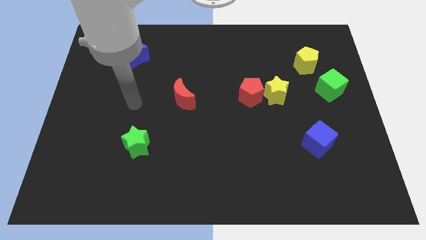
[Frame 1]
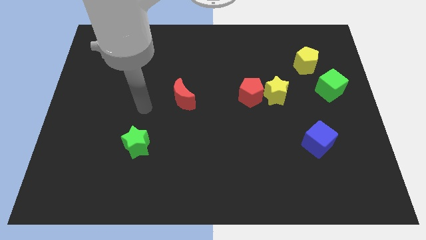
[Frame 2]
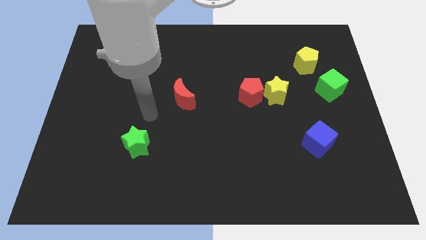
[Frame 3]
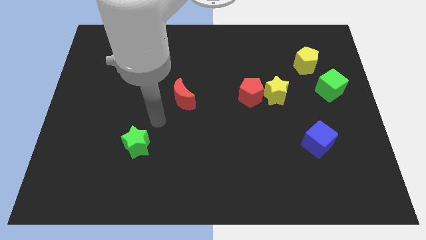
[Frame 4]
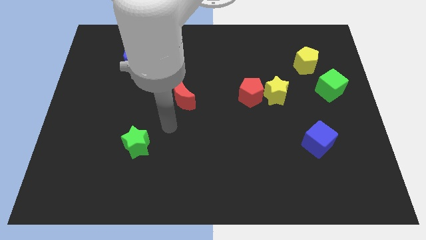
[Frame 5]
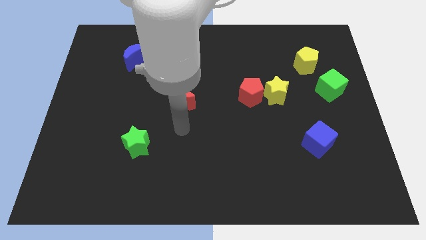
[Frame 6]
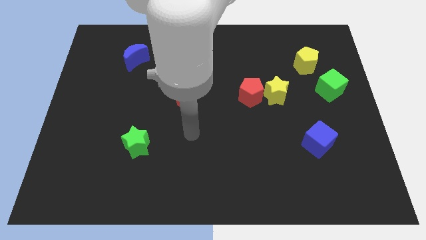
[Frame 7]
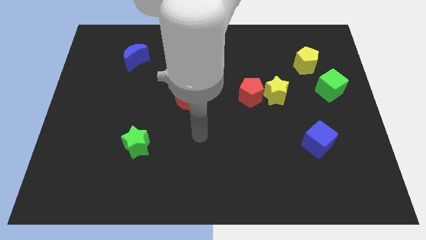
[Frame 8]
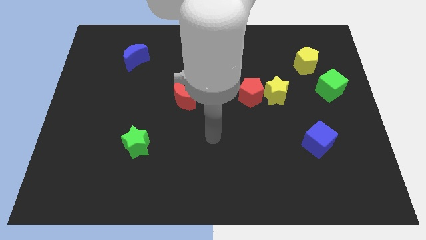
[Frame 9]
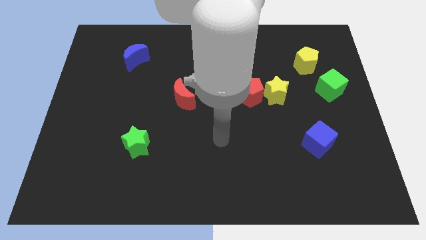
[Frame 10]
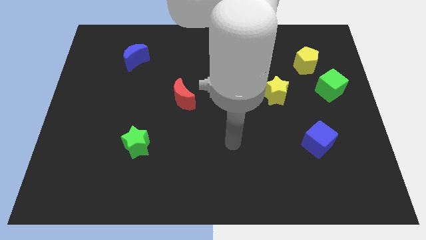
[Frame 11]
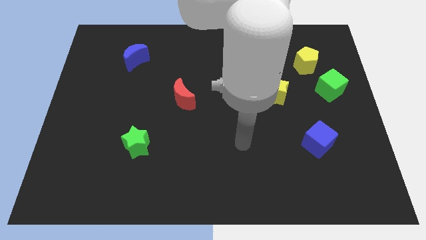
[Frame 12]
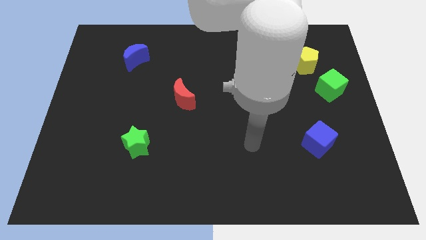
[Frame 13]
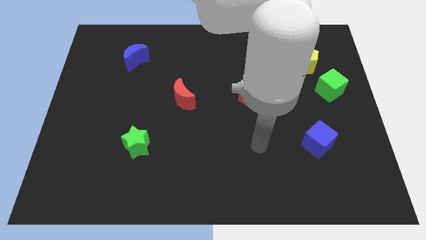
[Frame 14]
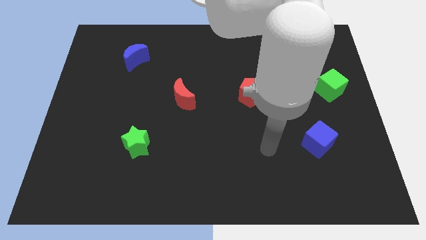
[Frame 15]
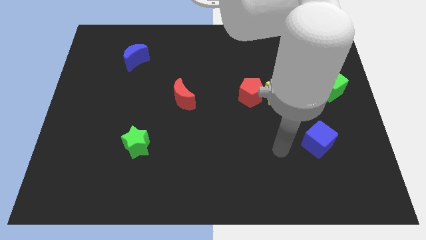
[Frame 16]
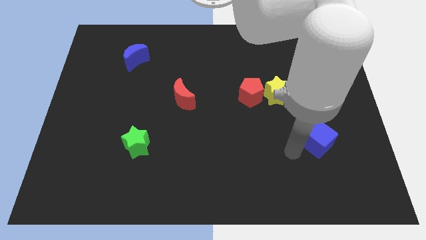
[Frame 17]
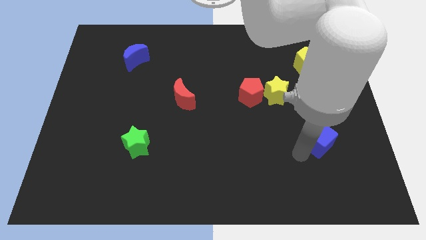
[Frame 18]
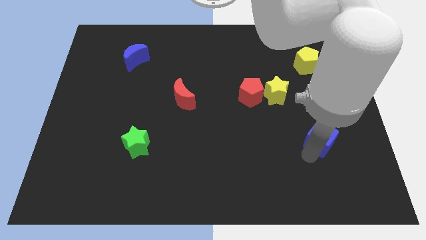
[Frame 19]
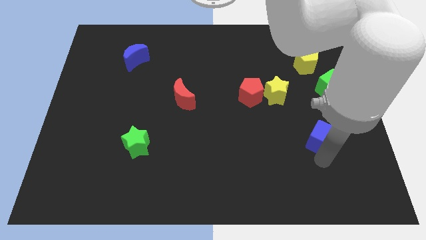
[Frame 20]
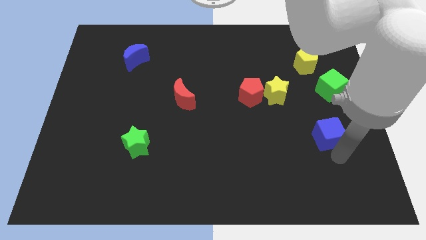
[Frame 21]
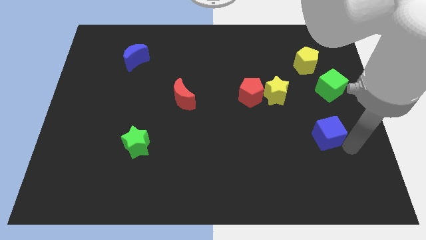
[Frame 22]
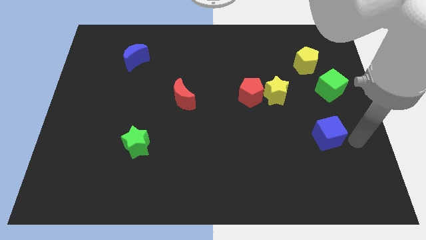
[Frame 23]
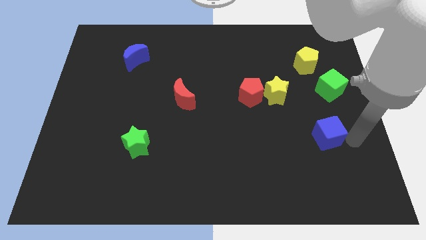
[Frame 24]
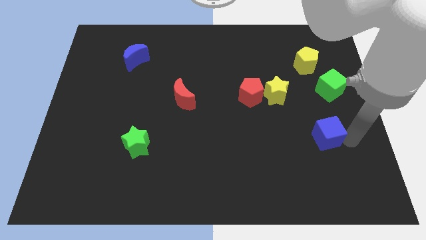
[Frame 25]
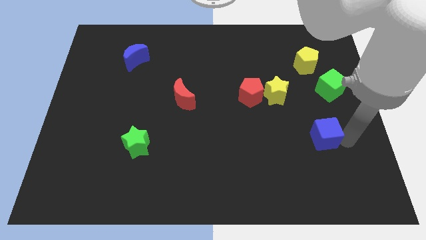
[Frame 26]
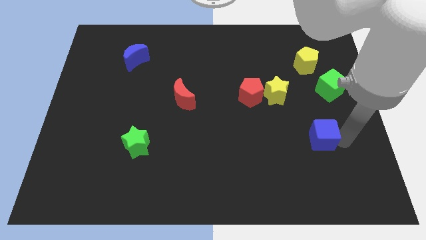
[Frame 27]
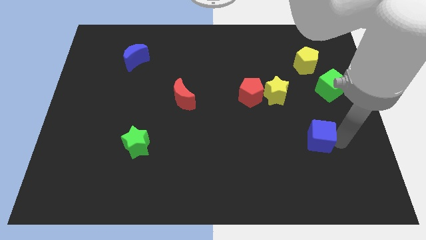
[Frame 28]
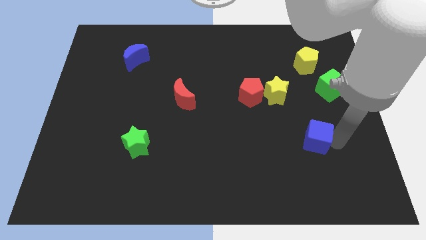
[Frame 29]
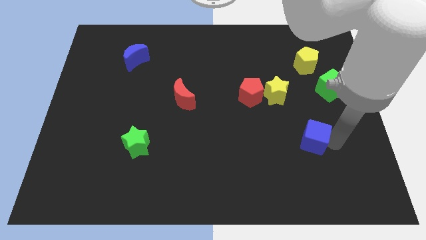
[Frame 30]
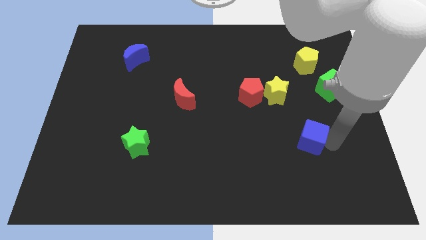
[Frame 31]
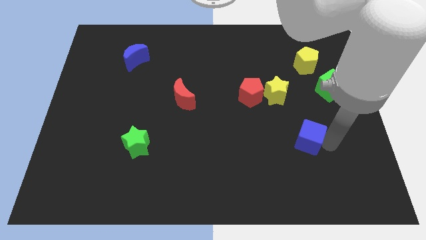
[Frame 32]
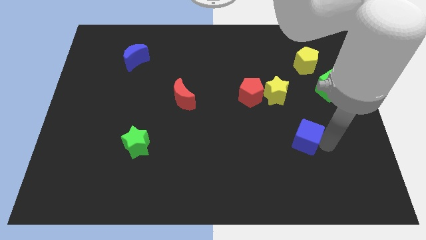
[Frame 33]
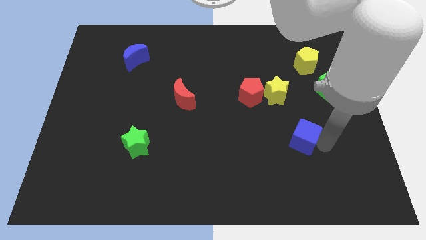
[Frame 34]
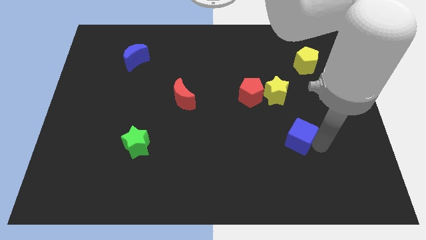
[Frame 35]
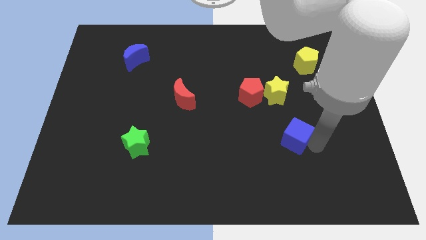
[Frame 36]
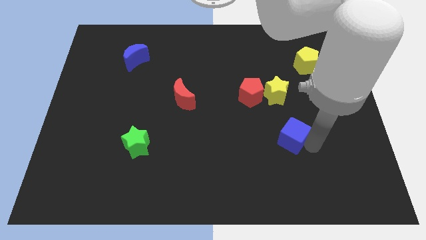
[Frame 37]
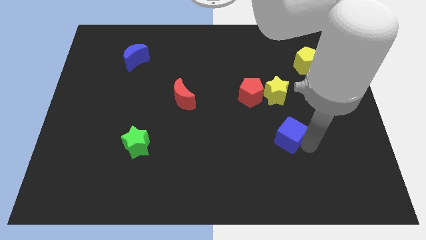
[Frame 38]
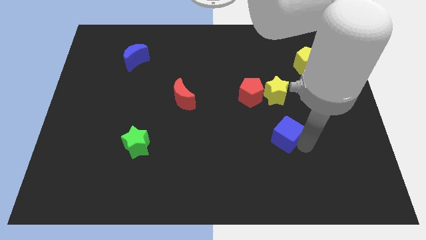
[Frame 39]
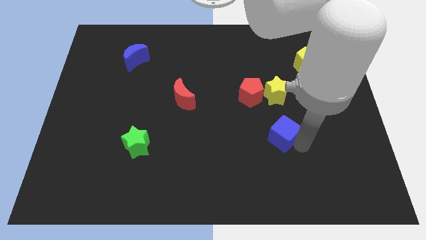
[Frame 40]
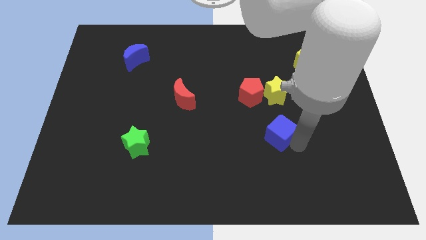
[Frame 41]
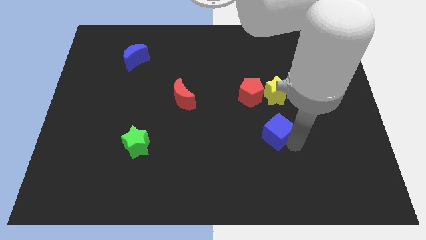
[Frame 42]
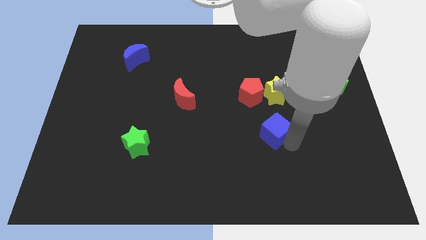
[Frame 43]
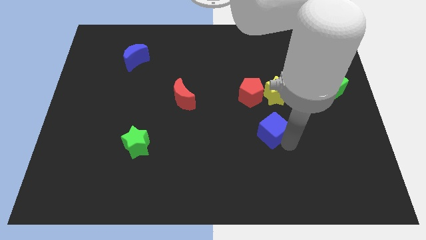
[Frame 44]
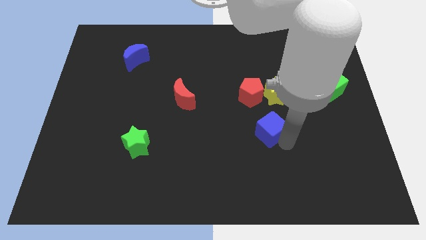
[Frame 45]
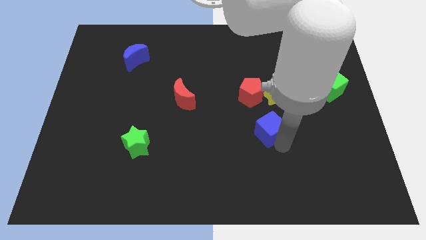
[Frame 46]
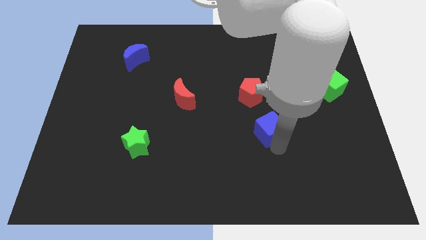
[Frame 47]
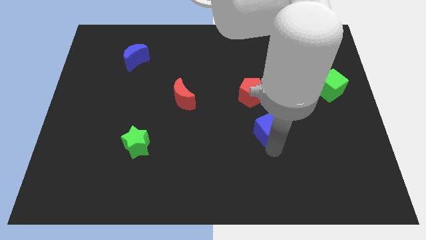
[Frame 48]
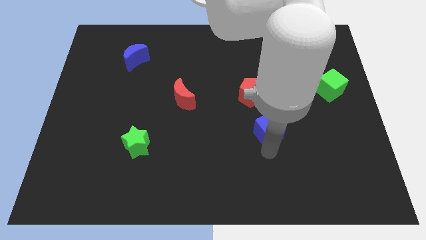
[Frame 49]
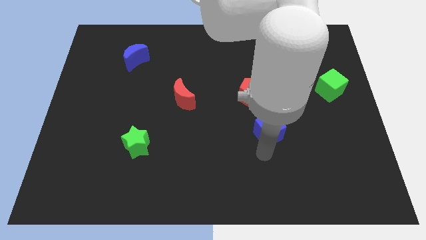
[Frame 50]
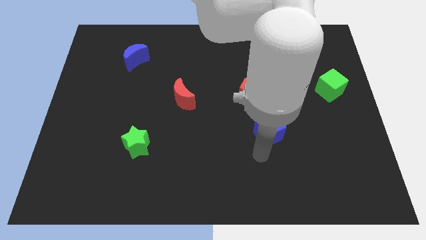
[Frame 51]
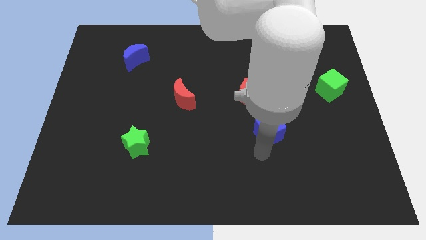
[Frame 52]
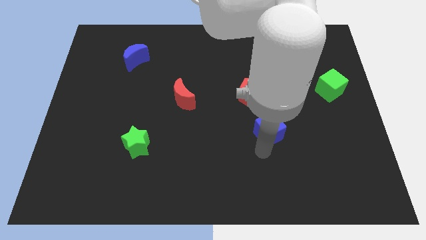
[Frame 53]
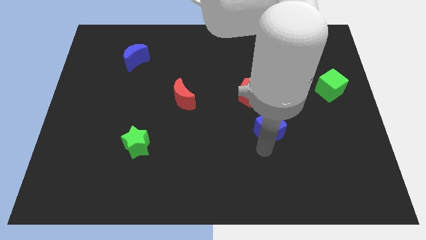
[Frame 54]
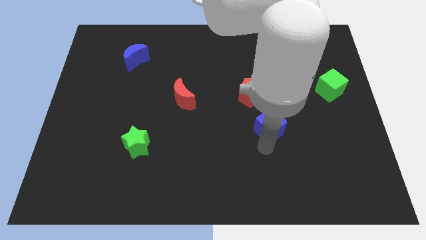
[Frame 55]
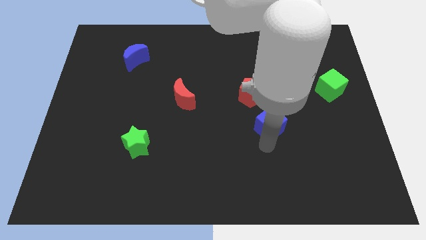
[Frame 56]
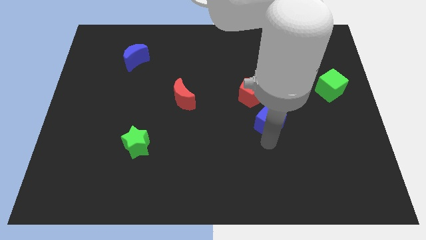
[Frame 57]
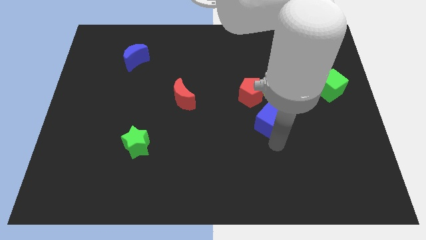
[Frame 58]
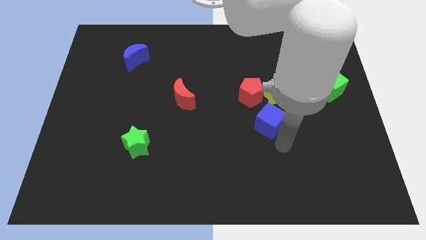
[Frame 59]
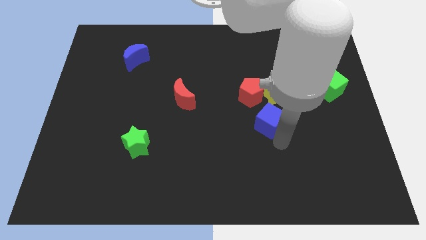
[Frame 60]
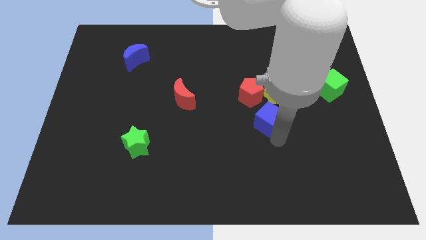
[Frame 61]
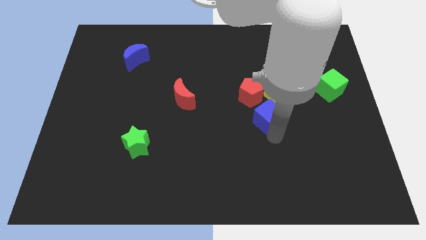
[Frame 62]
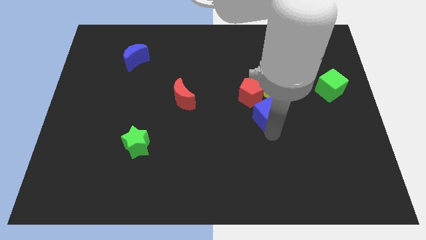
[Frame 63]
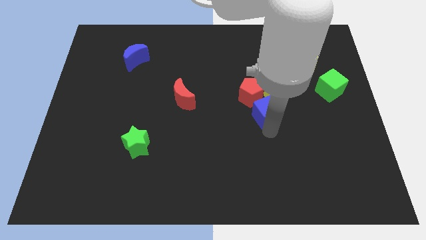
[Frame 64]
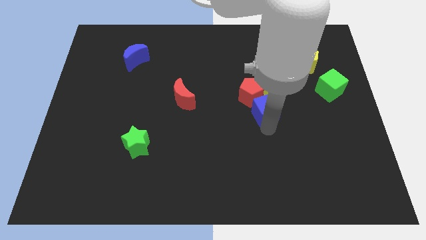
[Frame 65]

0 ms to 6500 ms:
slide the blue cube to the red pentagon
